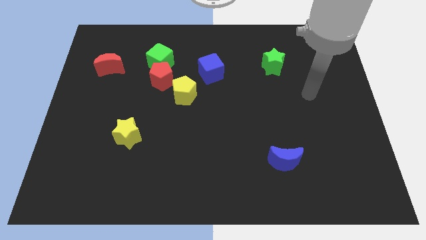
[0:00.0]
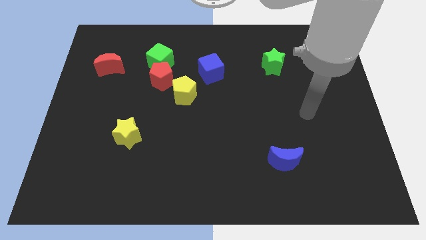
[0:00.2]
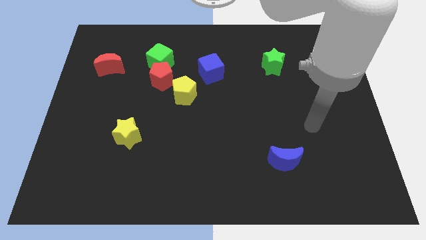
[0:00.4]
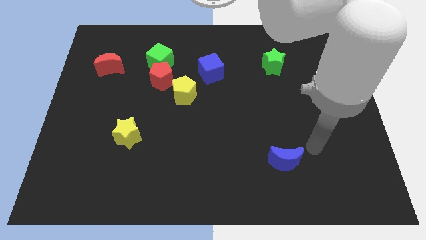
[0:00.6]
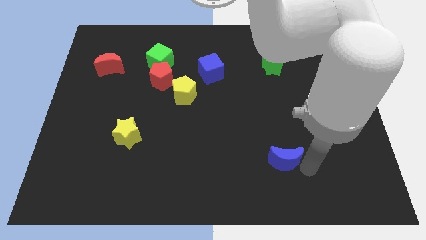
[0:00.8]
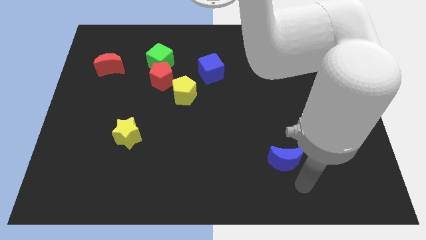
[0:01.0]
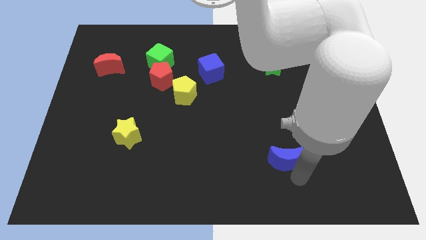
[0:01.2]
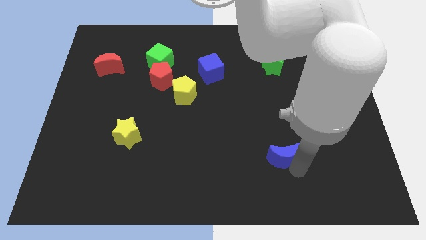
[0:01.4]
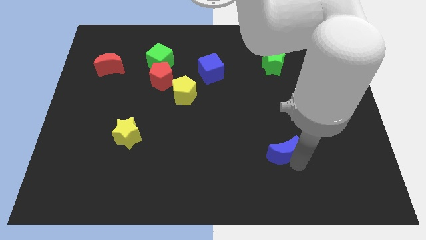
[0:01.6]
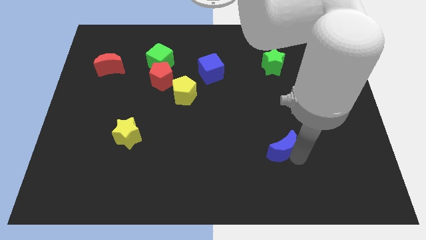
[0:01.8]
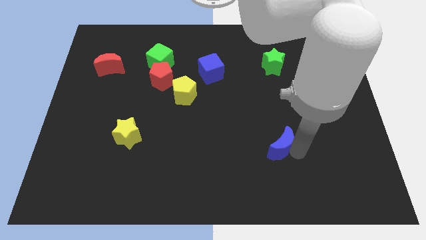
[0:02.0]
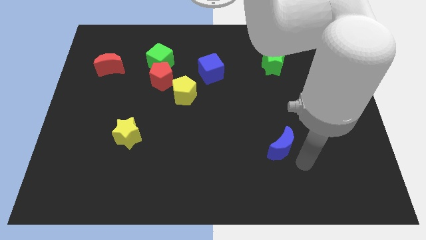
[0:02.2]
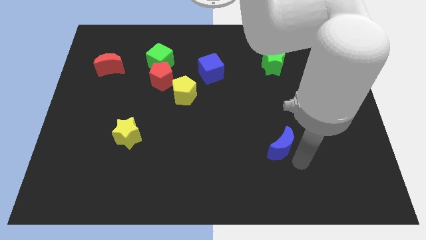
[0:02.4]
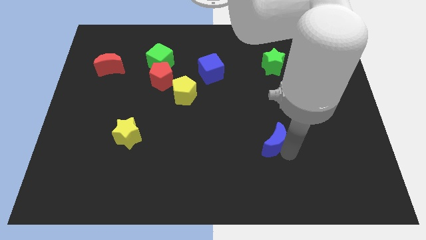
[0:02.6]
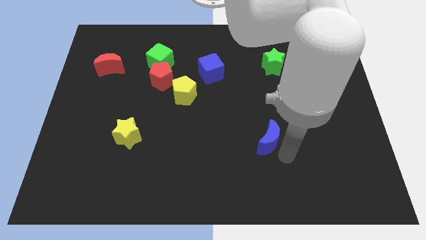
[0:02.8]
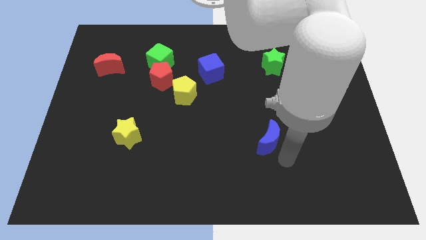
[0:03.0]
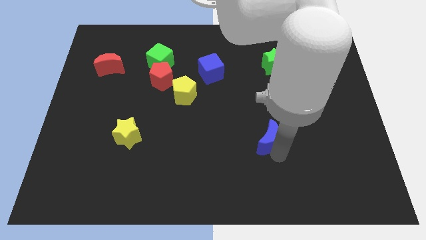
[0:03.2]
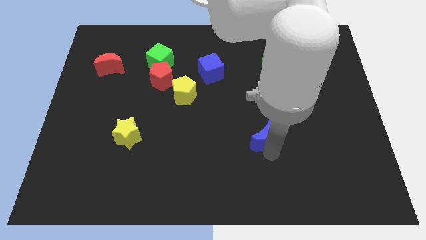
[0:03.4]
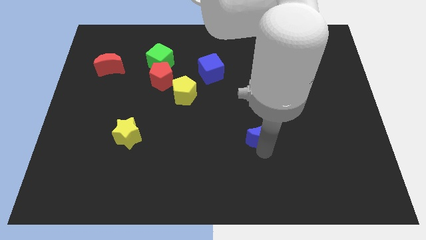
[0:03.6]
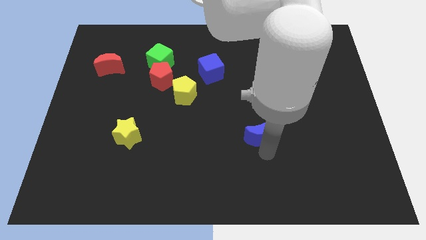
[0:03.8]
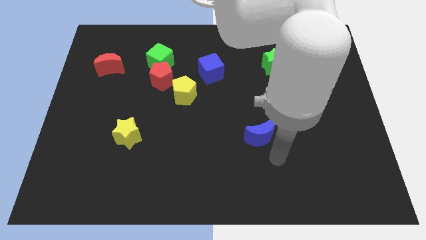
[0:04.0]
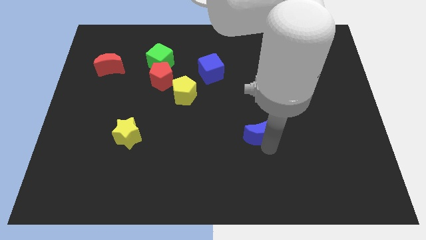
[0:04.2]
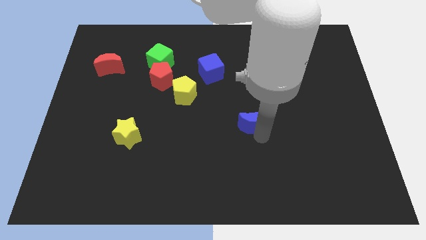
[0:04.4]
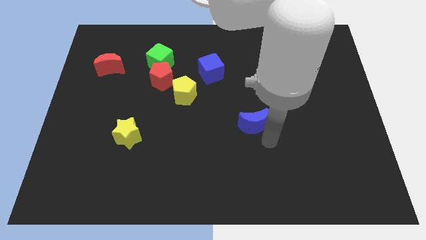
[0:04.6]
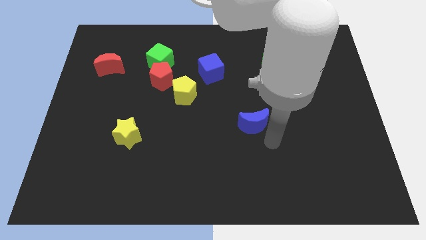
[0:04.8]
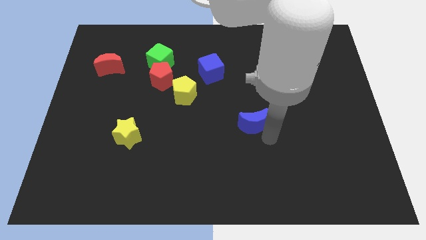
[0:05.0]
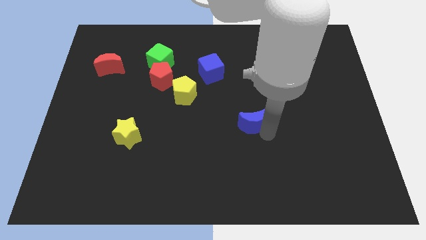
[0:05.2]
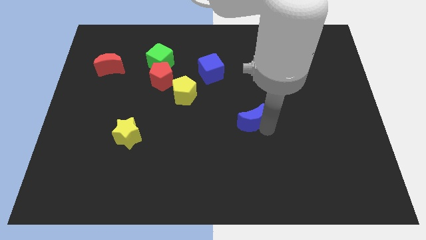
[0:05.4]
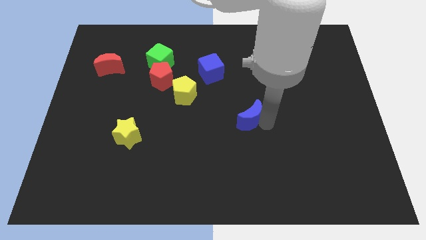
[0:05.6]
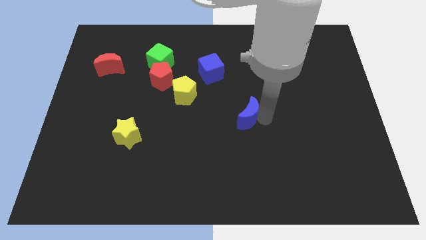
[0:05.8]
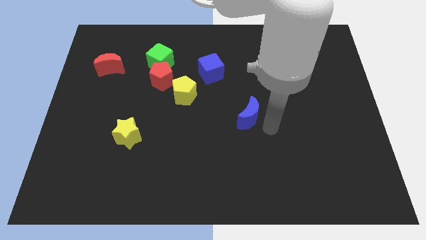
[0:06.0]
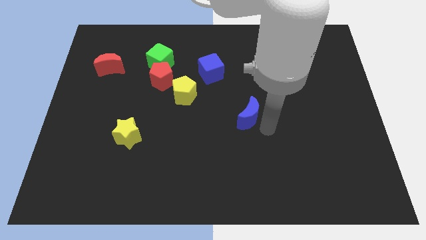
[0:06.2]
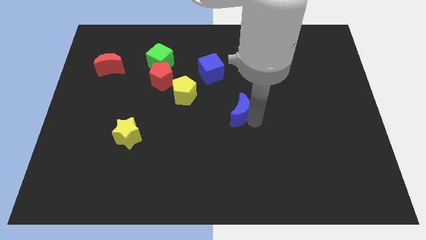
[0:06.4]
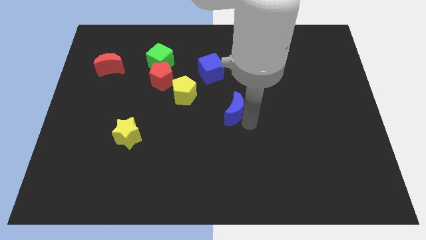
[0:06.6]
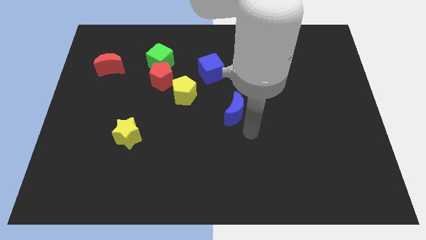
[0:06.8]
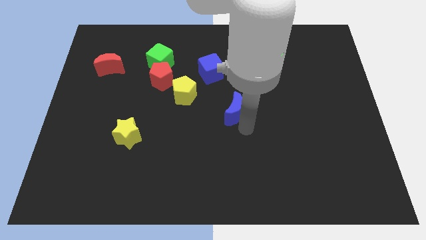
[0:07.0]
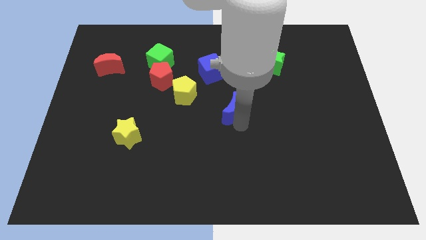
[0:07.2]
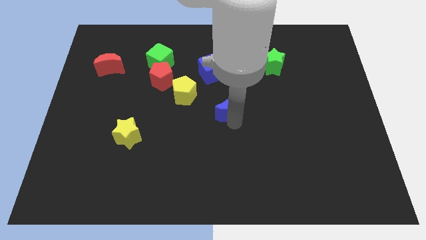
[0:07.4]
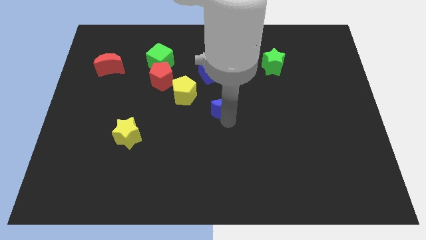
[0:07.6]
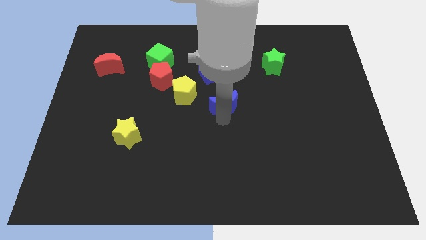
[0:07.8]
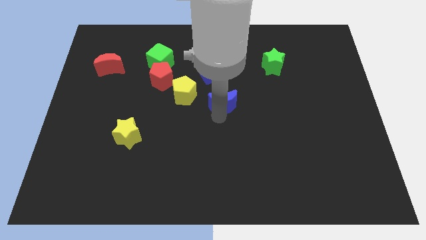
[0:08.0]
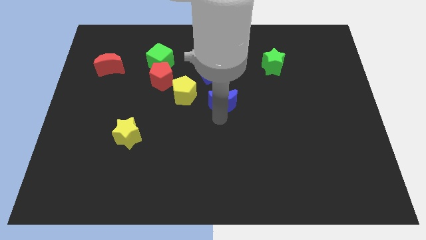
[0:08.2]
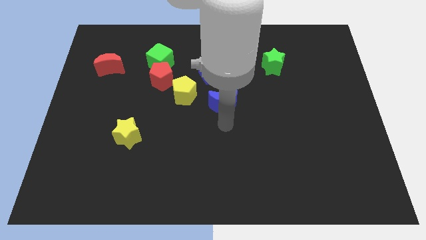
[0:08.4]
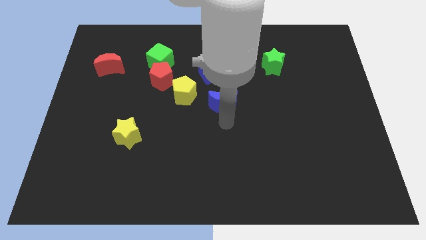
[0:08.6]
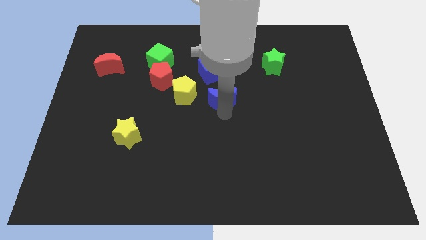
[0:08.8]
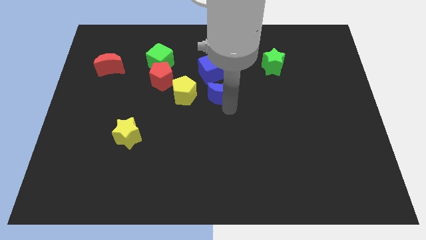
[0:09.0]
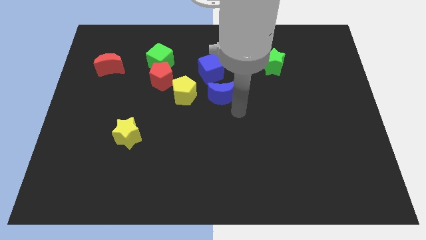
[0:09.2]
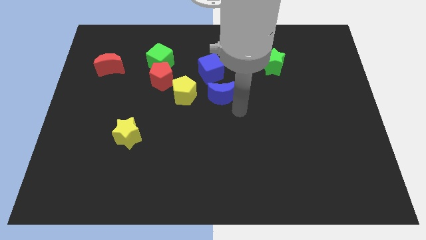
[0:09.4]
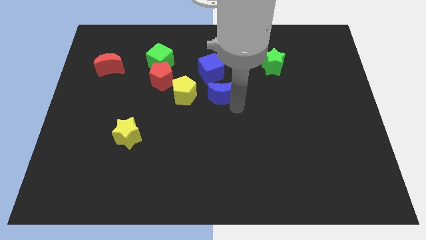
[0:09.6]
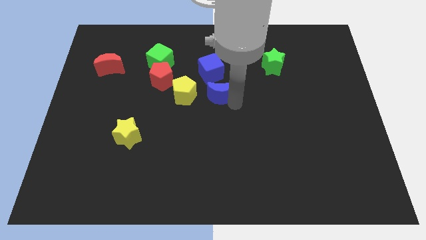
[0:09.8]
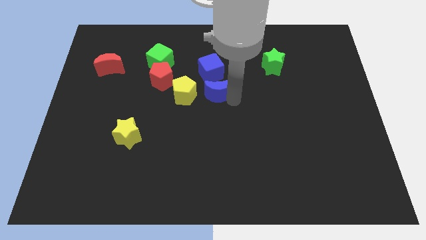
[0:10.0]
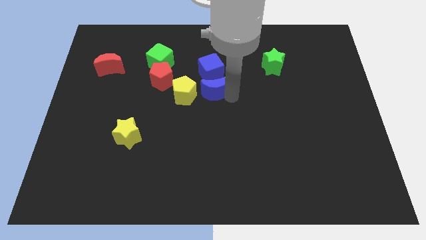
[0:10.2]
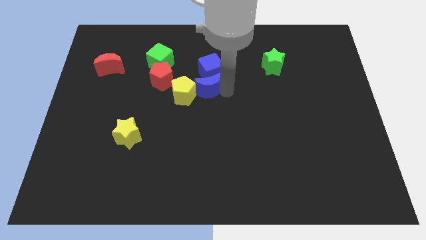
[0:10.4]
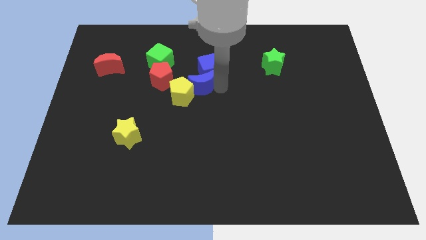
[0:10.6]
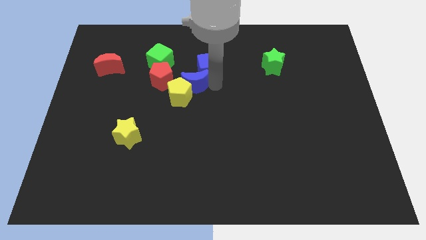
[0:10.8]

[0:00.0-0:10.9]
slide the blue moon diagonally down and to the right of the green cube
